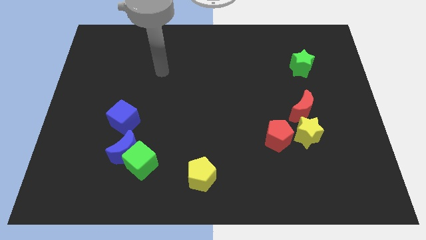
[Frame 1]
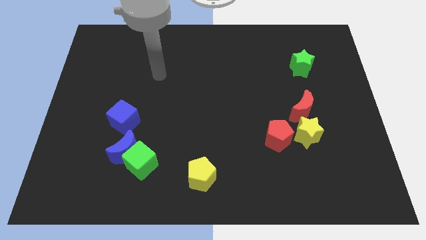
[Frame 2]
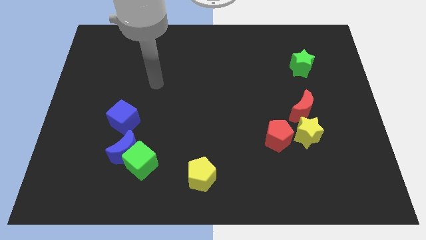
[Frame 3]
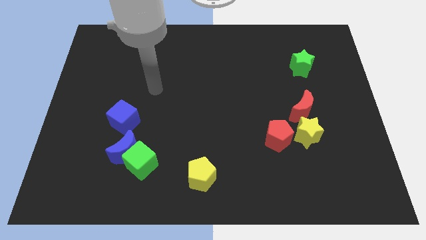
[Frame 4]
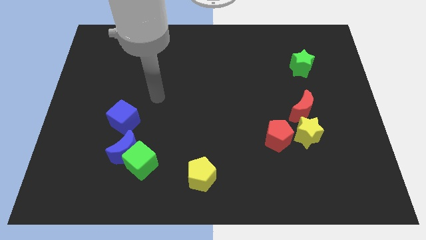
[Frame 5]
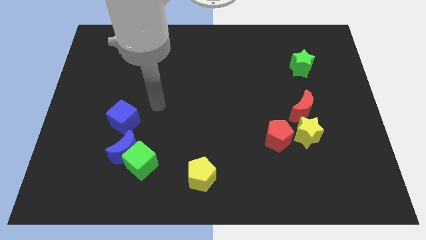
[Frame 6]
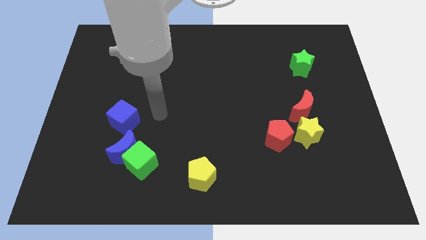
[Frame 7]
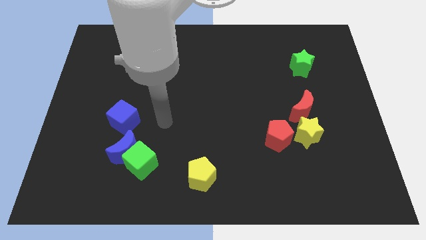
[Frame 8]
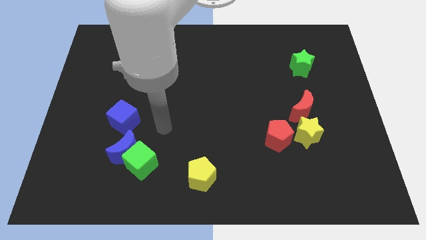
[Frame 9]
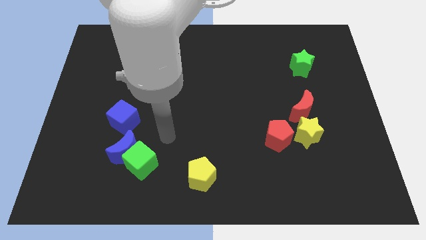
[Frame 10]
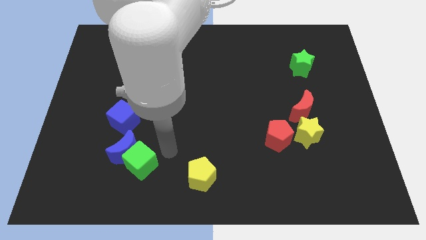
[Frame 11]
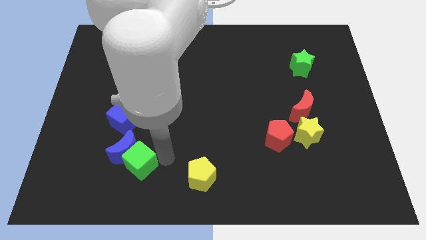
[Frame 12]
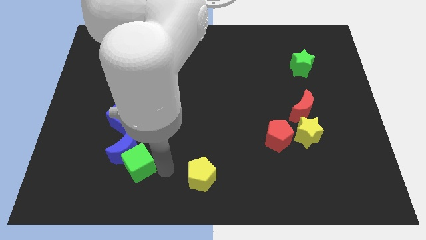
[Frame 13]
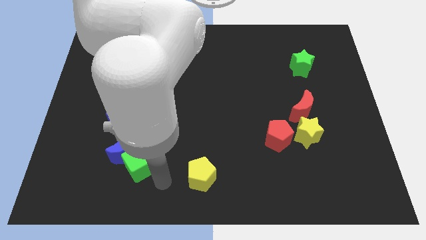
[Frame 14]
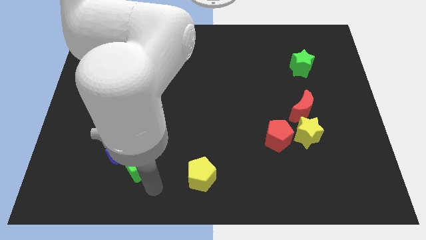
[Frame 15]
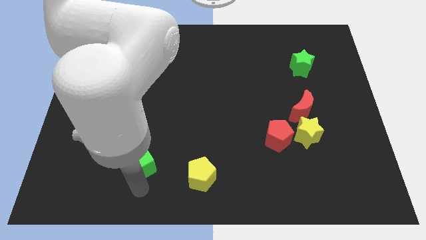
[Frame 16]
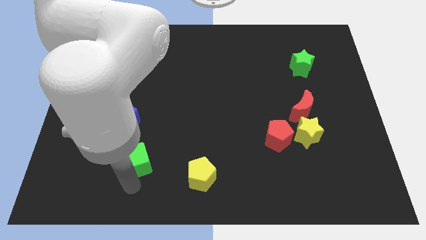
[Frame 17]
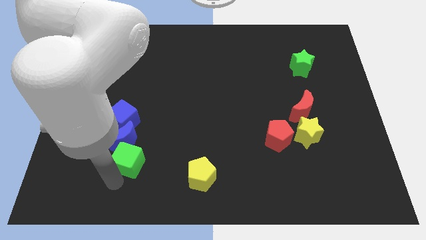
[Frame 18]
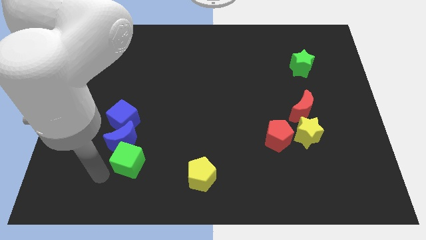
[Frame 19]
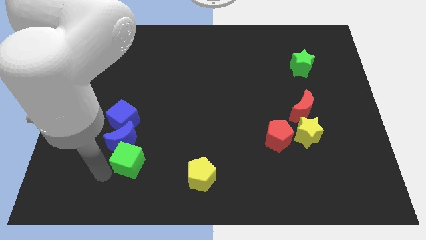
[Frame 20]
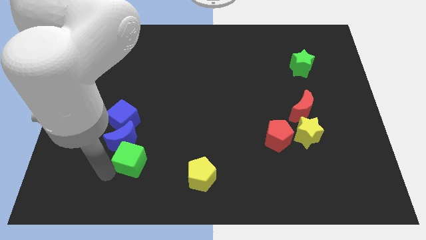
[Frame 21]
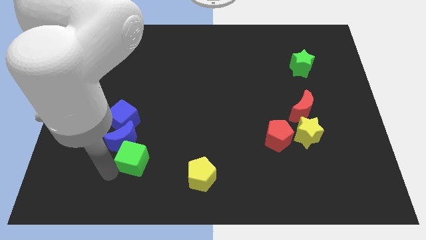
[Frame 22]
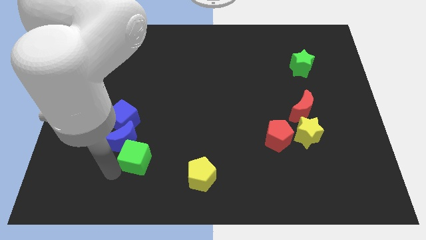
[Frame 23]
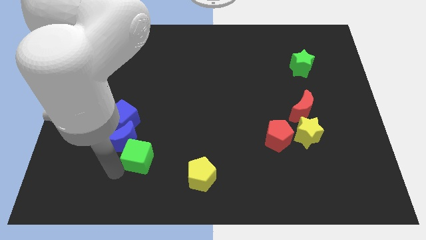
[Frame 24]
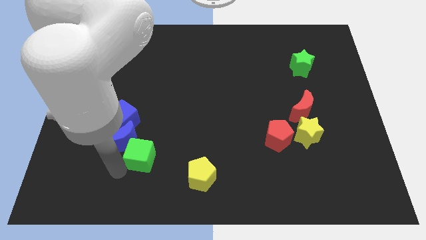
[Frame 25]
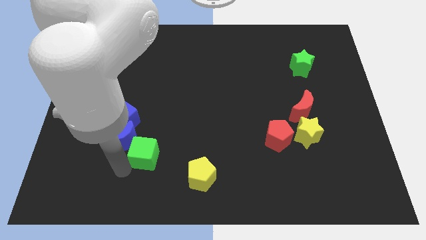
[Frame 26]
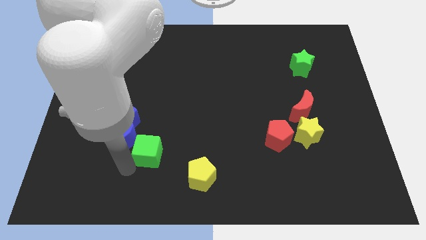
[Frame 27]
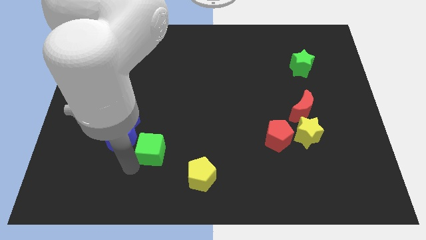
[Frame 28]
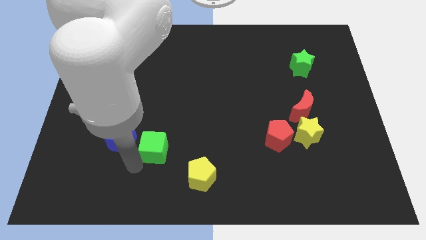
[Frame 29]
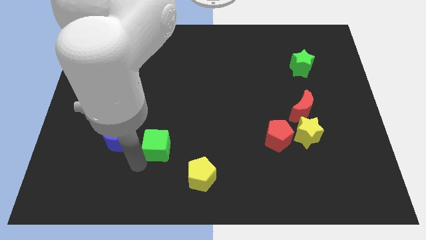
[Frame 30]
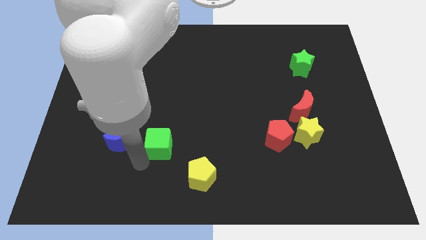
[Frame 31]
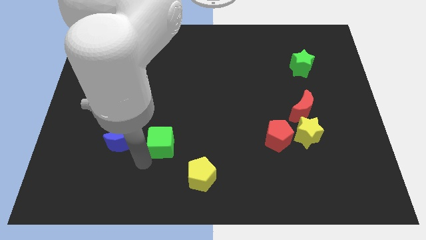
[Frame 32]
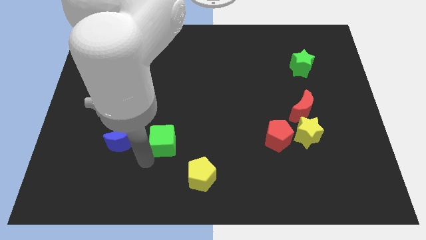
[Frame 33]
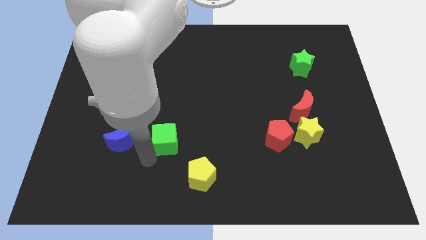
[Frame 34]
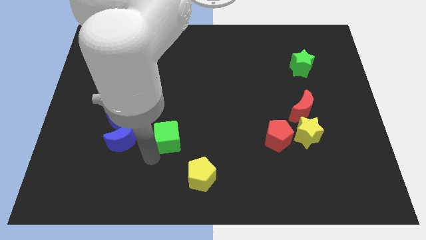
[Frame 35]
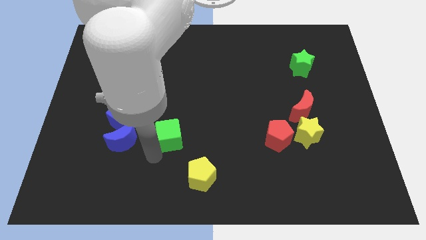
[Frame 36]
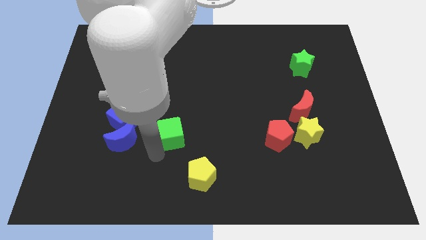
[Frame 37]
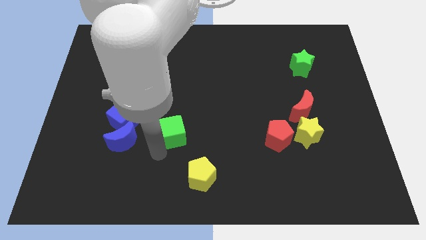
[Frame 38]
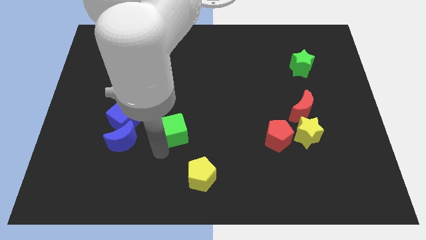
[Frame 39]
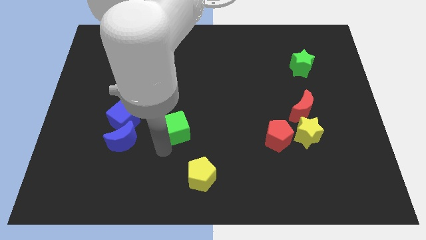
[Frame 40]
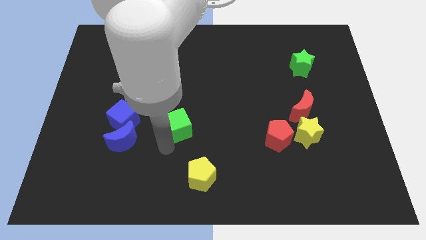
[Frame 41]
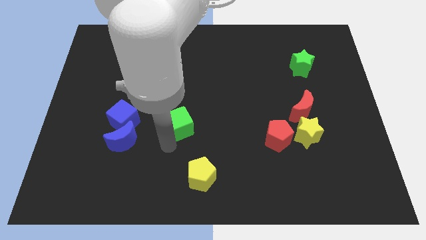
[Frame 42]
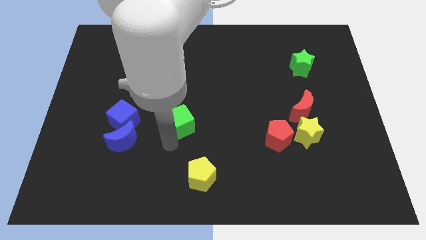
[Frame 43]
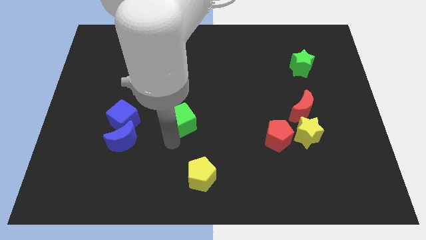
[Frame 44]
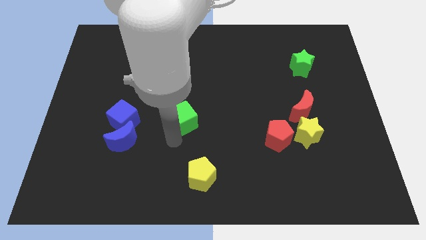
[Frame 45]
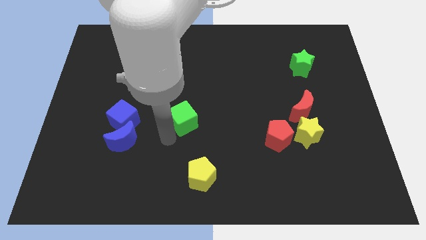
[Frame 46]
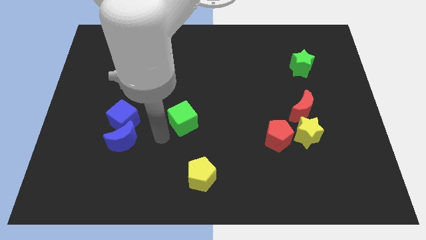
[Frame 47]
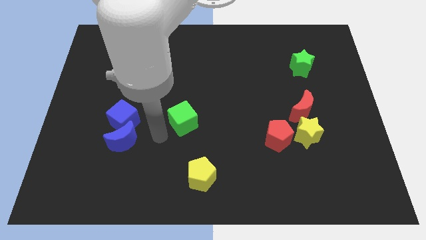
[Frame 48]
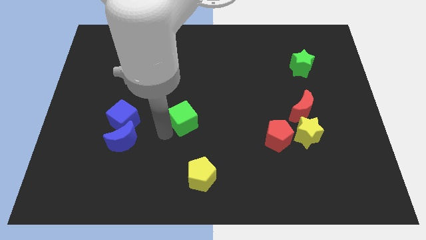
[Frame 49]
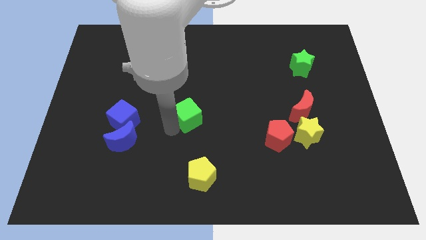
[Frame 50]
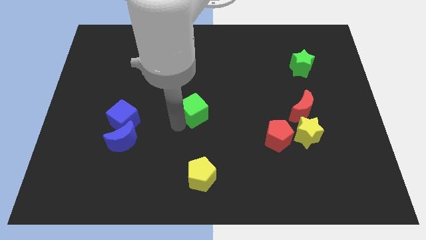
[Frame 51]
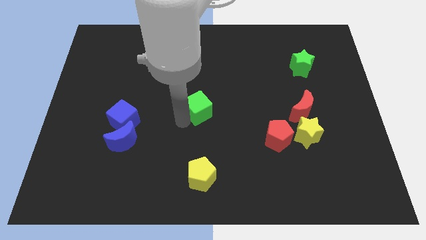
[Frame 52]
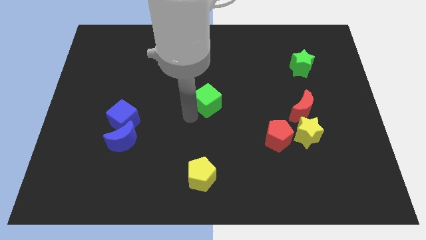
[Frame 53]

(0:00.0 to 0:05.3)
move the green cube upwards and then right

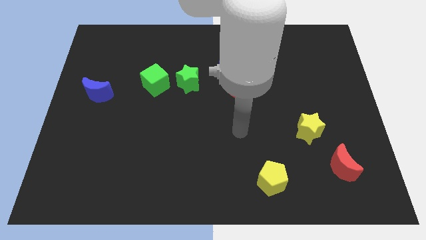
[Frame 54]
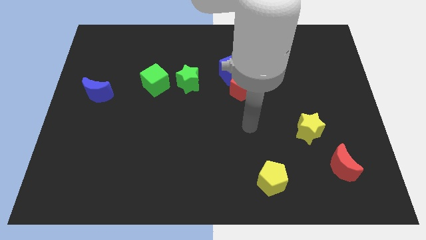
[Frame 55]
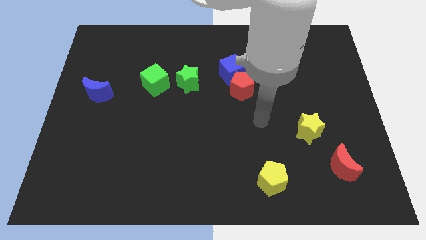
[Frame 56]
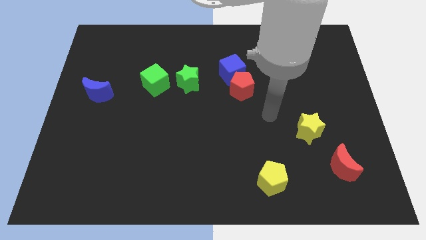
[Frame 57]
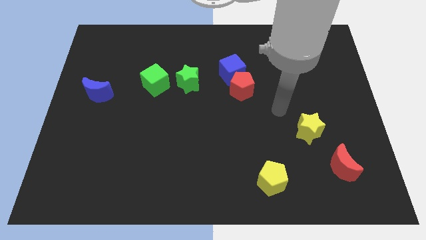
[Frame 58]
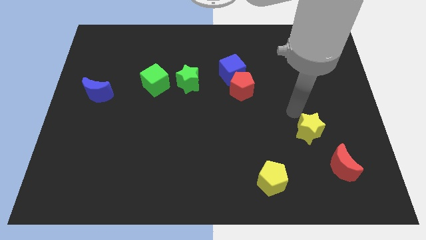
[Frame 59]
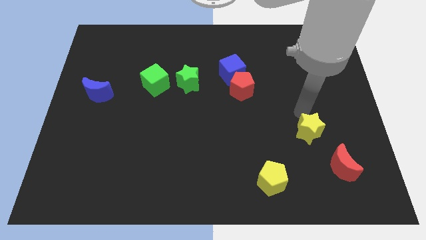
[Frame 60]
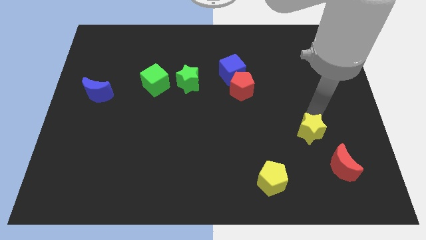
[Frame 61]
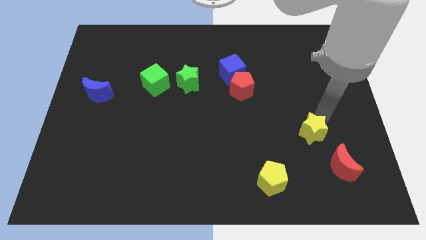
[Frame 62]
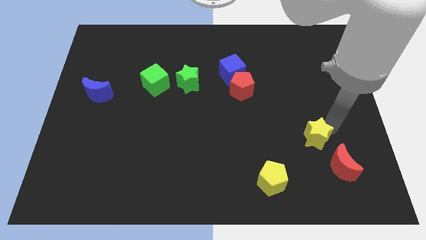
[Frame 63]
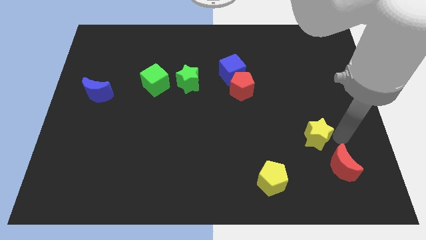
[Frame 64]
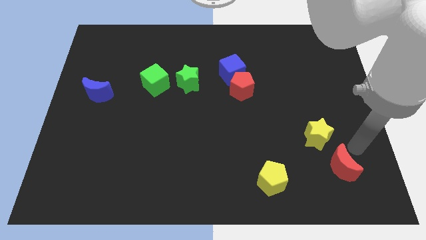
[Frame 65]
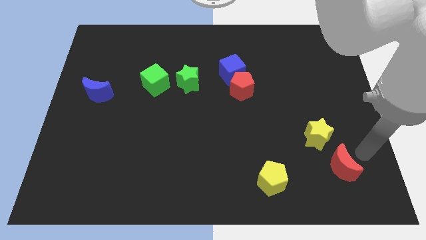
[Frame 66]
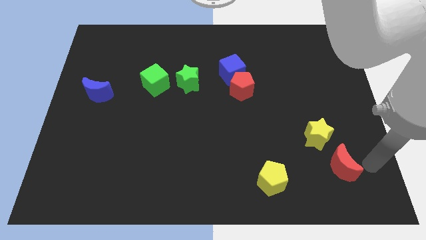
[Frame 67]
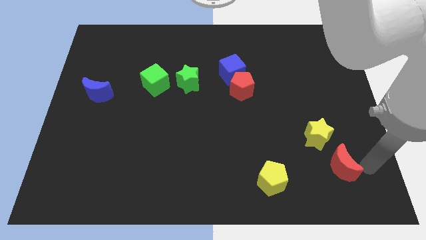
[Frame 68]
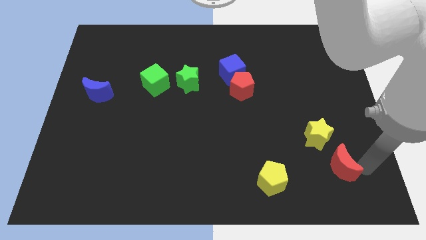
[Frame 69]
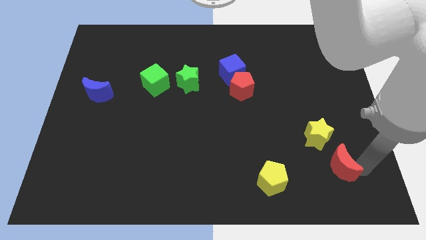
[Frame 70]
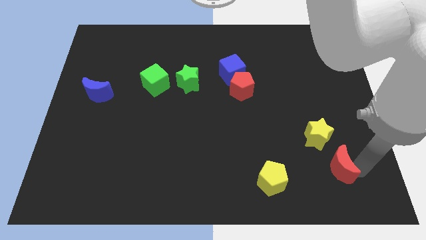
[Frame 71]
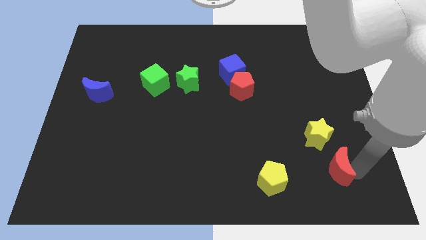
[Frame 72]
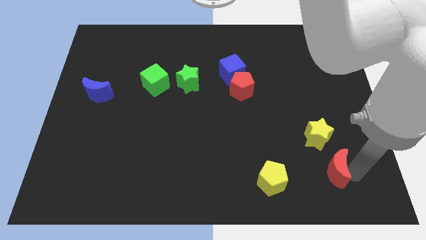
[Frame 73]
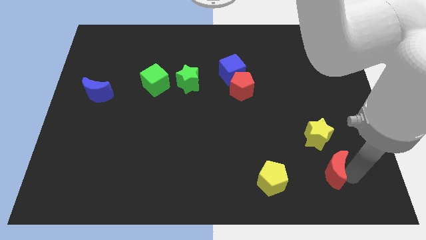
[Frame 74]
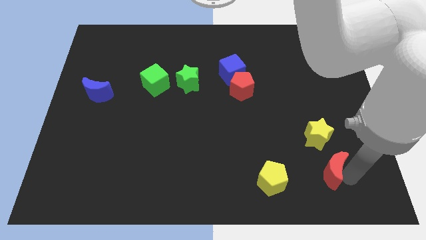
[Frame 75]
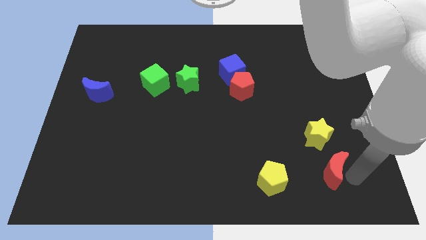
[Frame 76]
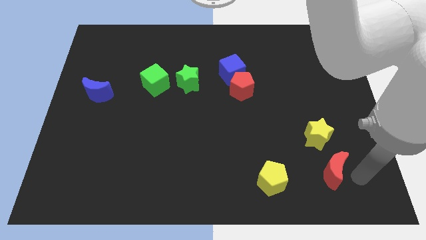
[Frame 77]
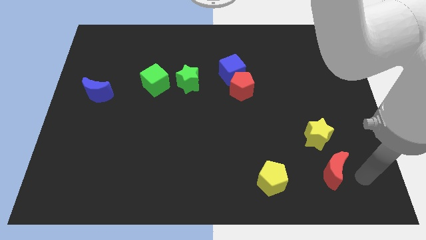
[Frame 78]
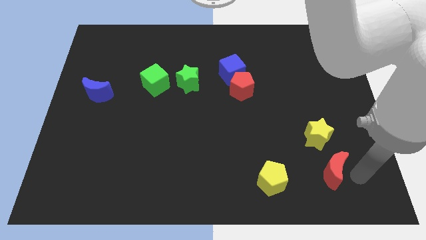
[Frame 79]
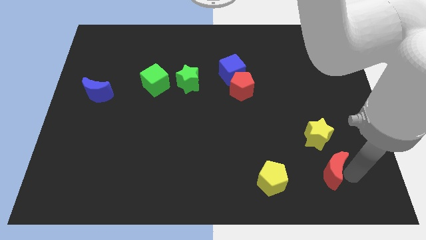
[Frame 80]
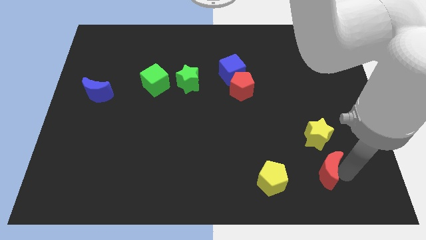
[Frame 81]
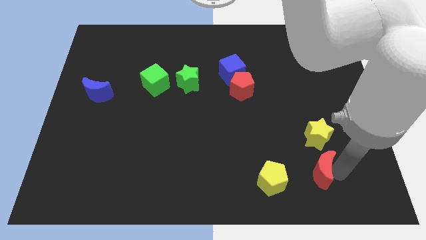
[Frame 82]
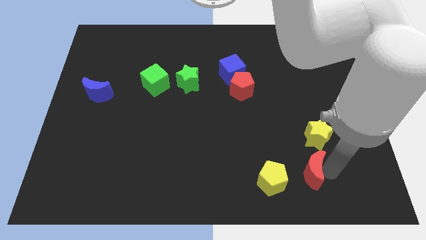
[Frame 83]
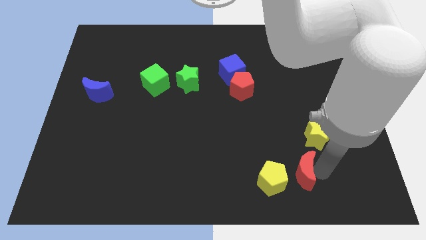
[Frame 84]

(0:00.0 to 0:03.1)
move the red moon to the left a little
